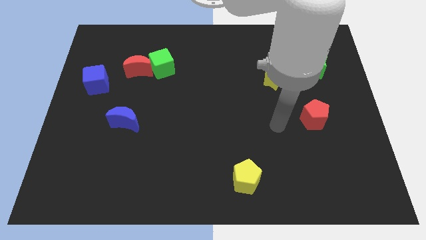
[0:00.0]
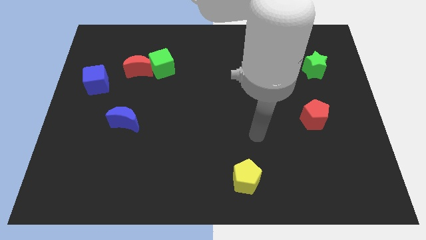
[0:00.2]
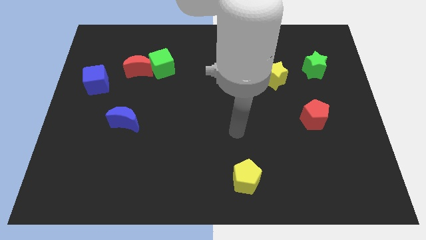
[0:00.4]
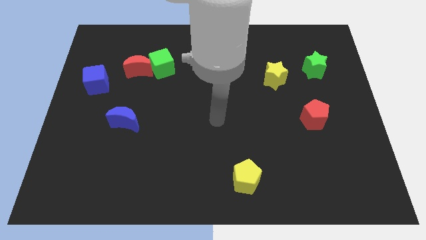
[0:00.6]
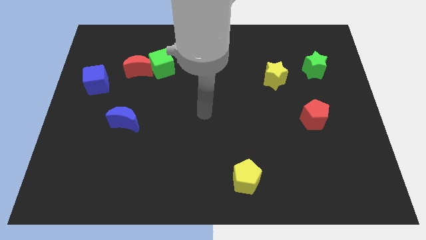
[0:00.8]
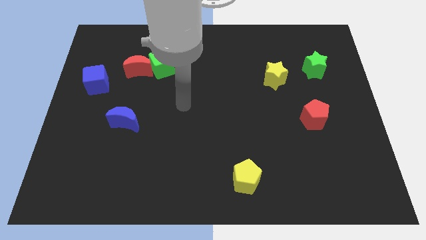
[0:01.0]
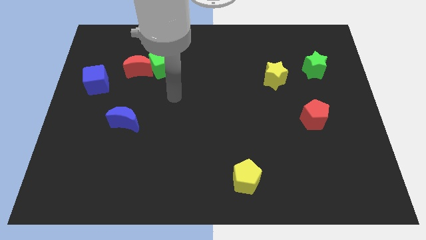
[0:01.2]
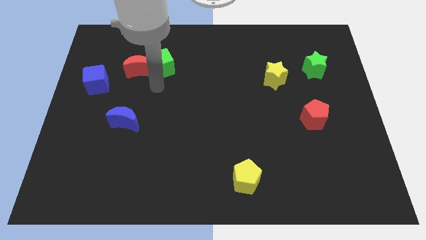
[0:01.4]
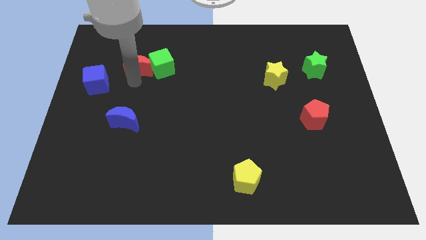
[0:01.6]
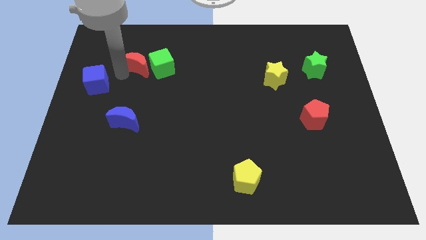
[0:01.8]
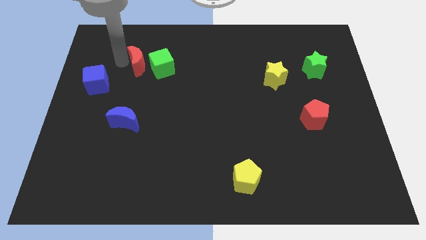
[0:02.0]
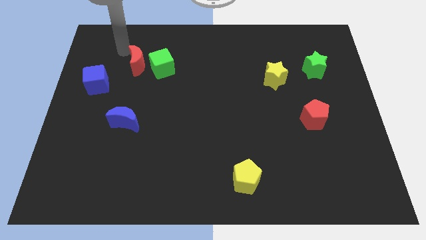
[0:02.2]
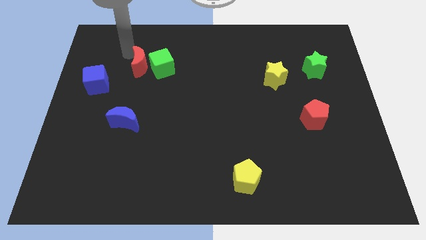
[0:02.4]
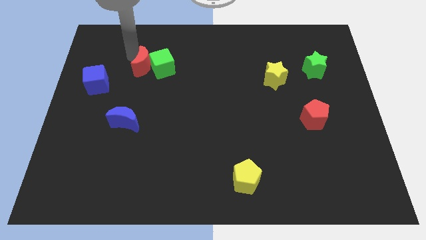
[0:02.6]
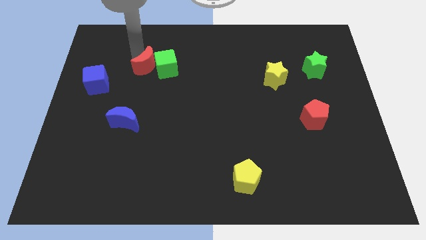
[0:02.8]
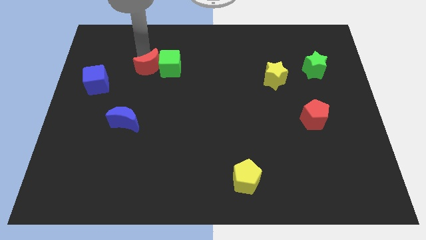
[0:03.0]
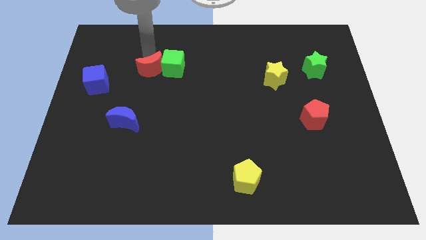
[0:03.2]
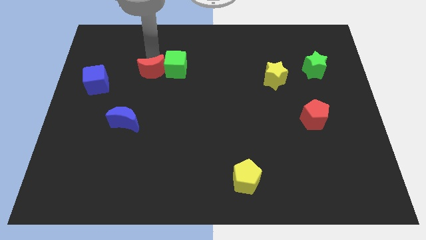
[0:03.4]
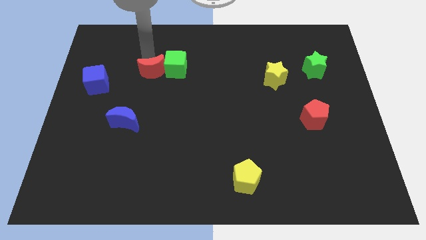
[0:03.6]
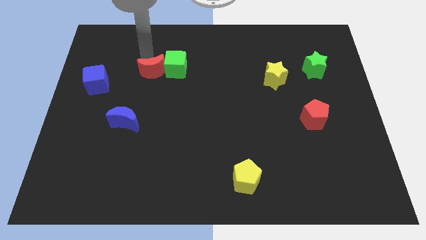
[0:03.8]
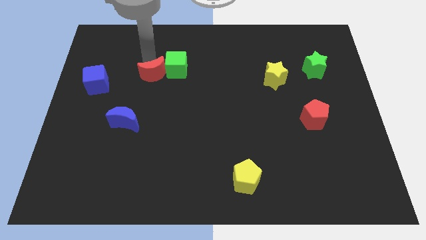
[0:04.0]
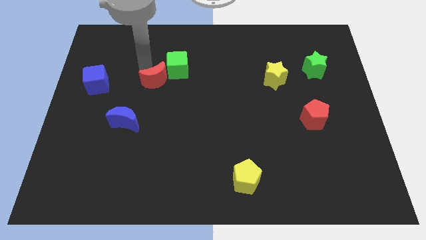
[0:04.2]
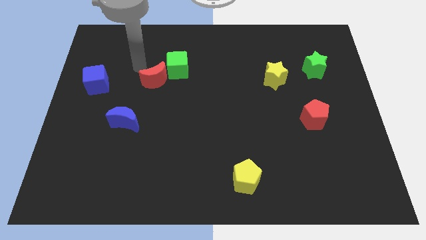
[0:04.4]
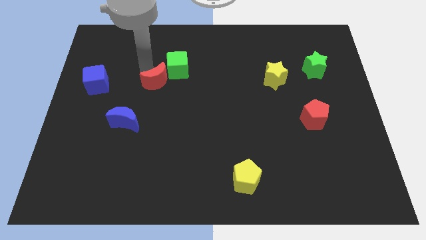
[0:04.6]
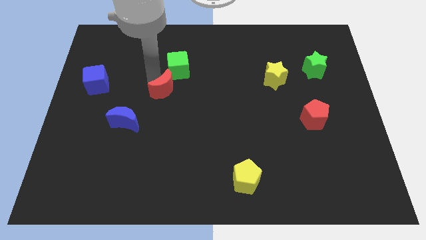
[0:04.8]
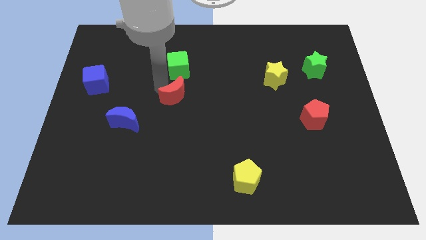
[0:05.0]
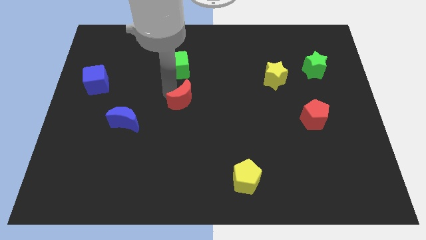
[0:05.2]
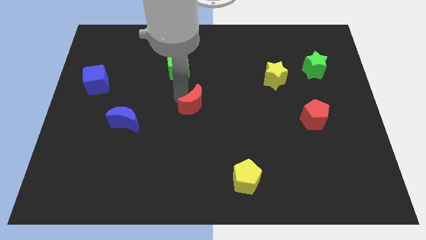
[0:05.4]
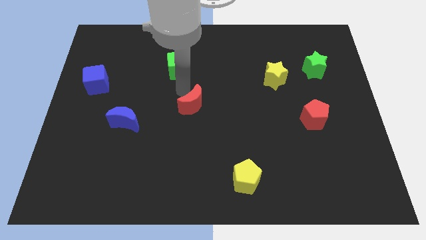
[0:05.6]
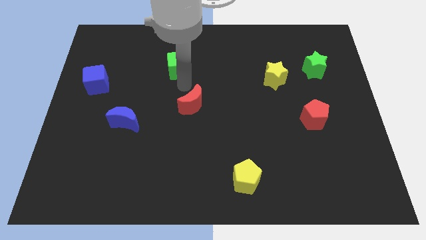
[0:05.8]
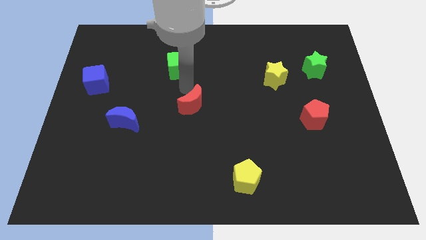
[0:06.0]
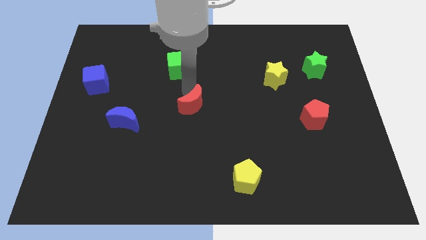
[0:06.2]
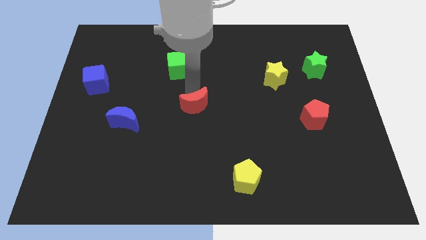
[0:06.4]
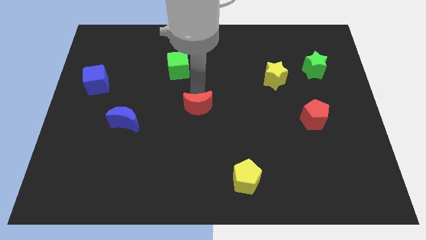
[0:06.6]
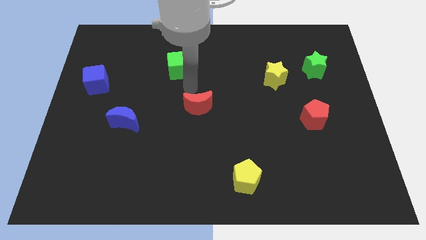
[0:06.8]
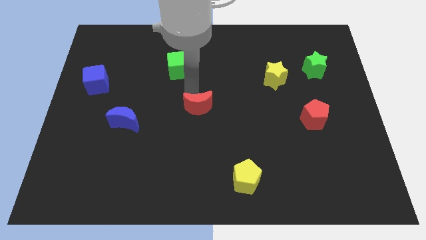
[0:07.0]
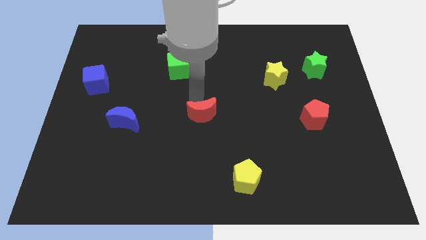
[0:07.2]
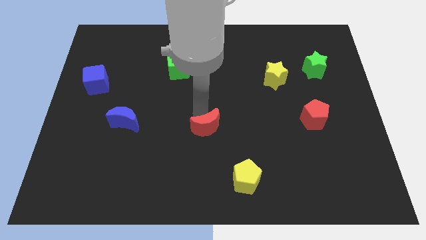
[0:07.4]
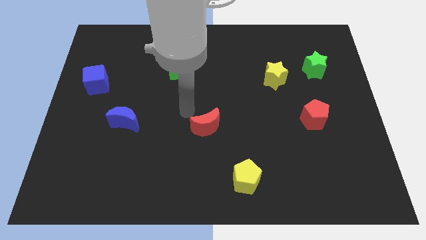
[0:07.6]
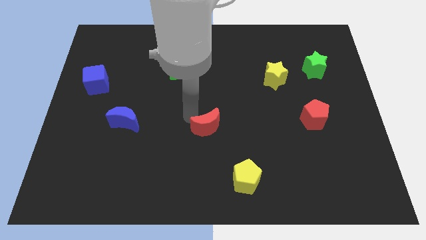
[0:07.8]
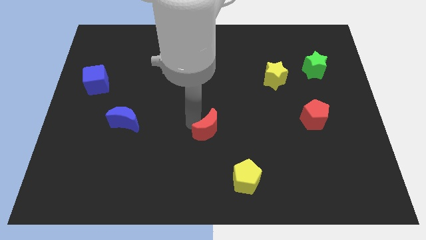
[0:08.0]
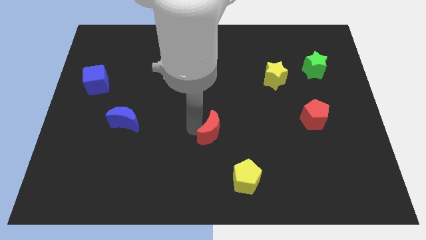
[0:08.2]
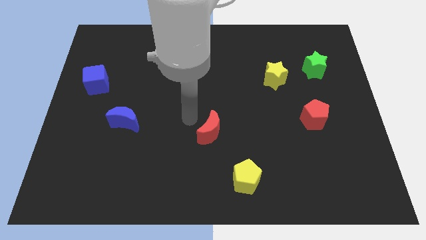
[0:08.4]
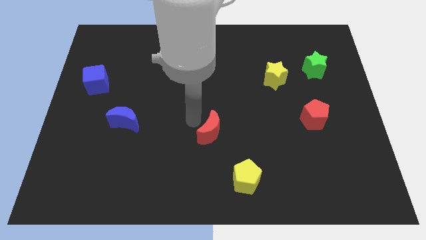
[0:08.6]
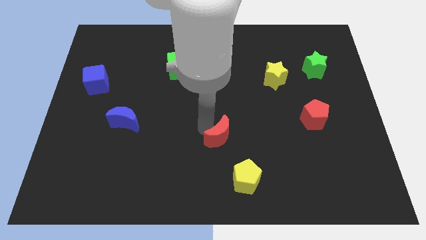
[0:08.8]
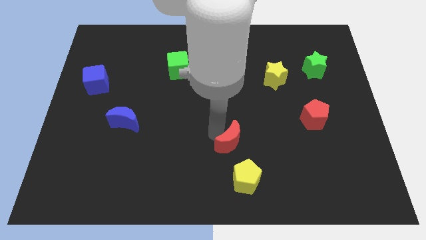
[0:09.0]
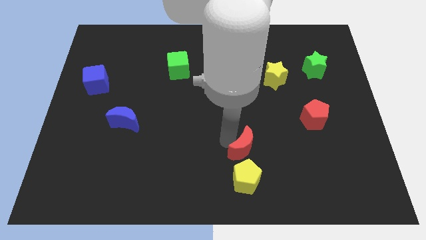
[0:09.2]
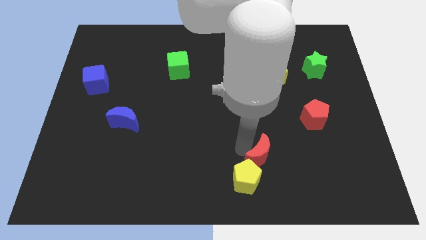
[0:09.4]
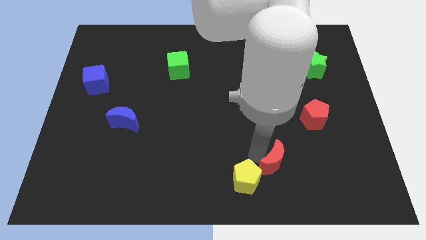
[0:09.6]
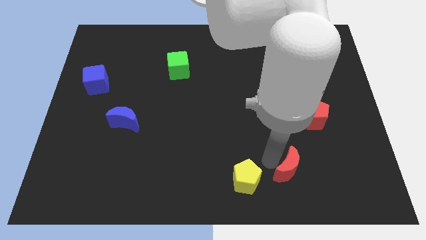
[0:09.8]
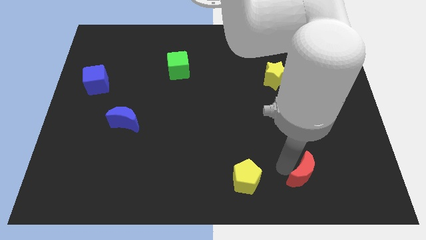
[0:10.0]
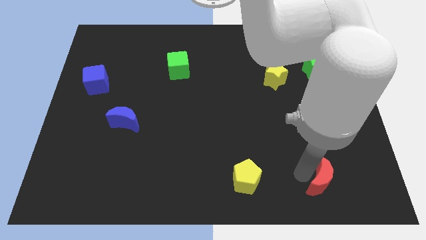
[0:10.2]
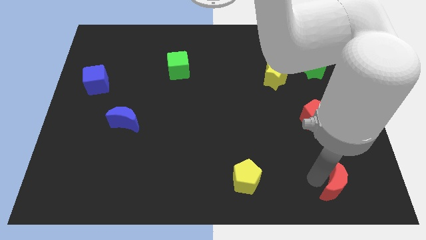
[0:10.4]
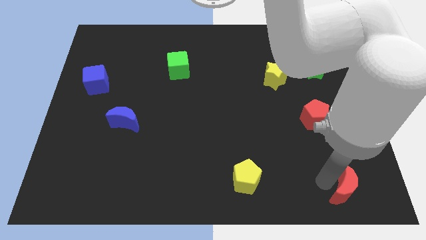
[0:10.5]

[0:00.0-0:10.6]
slide the red moon to the bottom right of the board

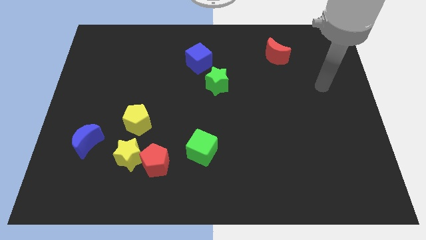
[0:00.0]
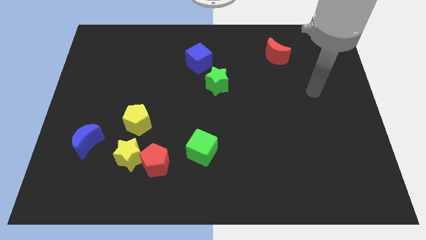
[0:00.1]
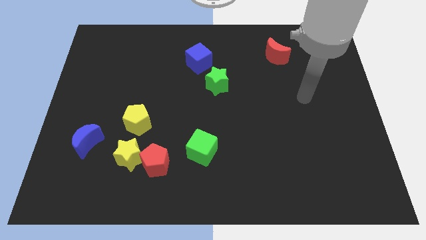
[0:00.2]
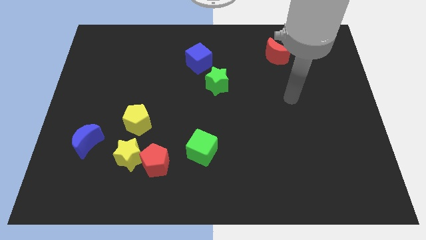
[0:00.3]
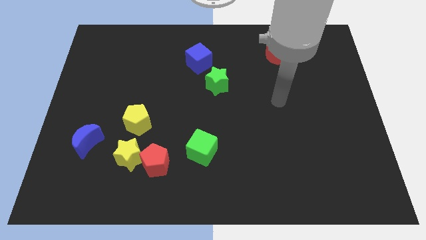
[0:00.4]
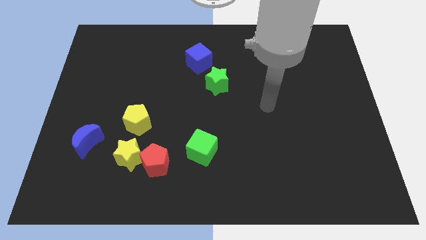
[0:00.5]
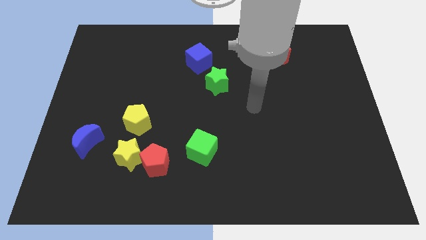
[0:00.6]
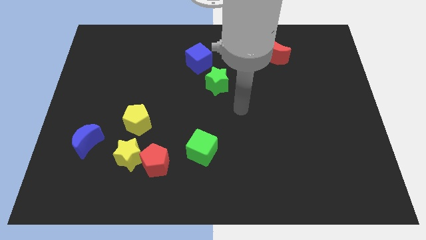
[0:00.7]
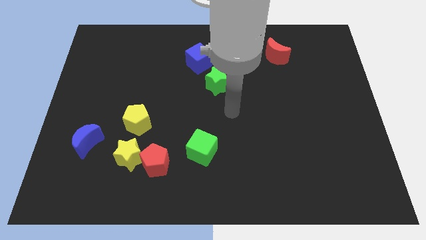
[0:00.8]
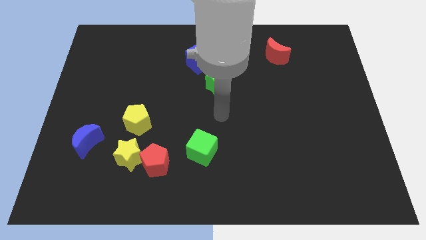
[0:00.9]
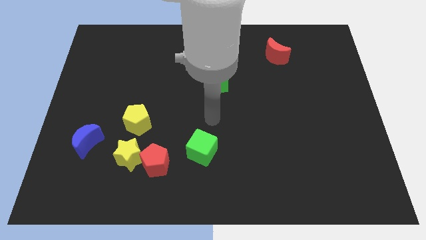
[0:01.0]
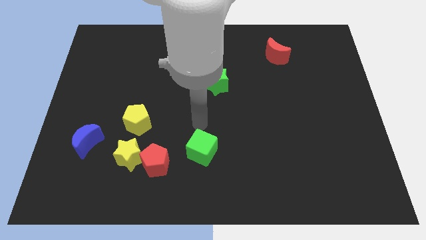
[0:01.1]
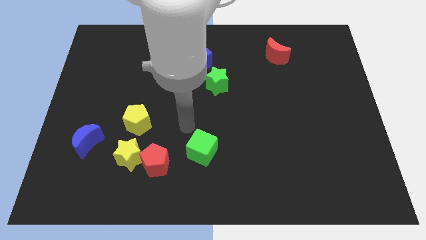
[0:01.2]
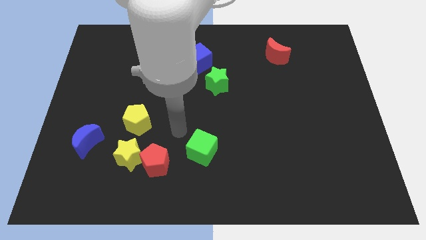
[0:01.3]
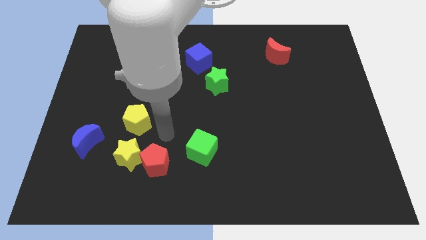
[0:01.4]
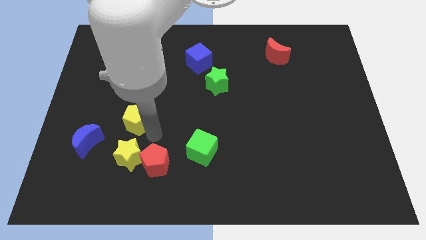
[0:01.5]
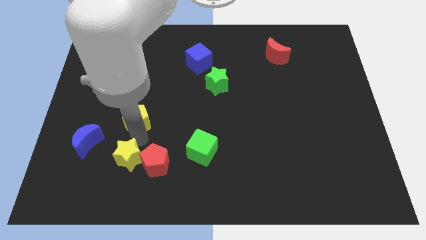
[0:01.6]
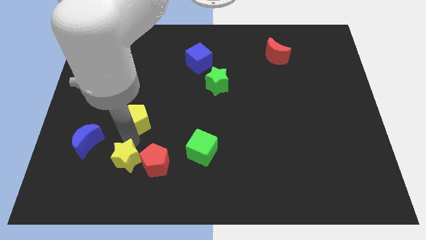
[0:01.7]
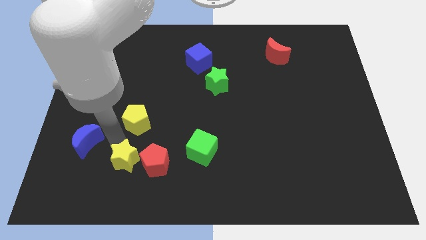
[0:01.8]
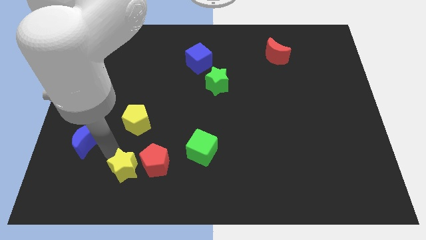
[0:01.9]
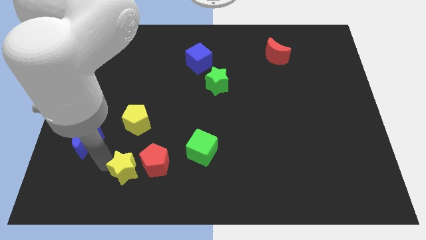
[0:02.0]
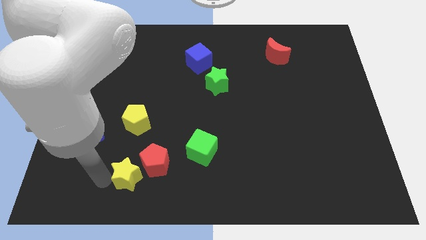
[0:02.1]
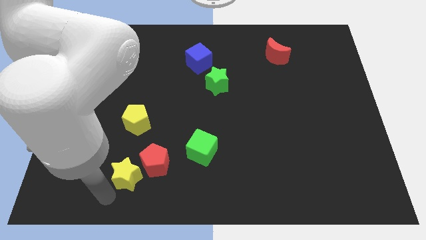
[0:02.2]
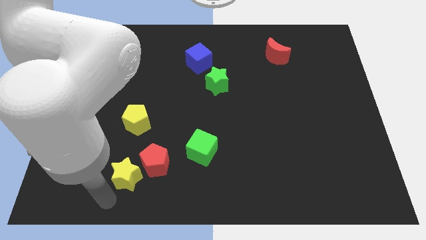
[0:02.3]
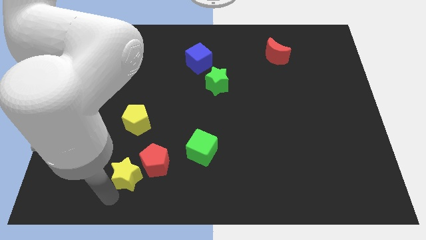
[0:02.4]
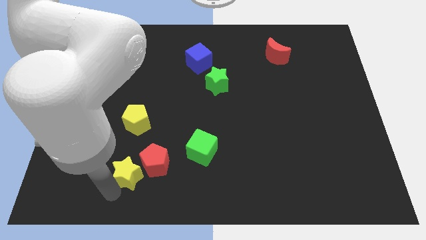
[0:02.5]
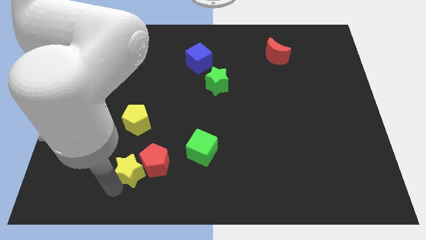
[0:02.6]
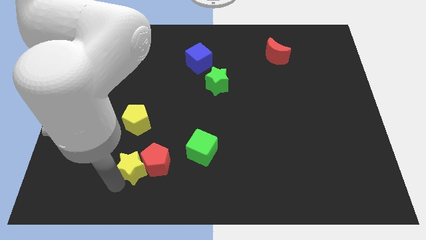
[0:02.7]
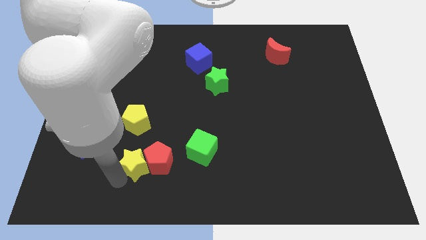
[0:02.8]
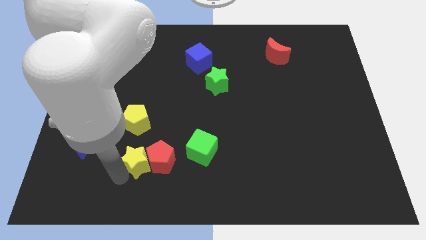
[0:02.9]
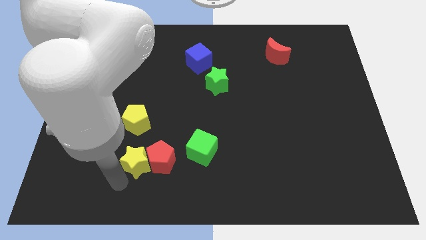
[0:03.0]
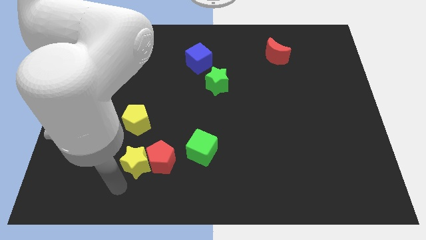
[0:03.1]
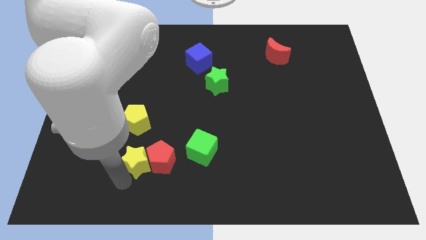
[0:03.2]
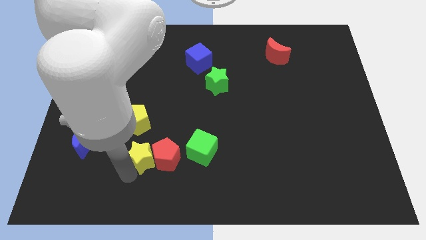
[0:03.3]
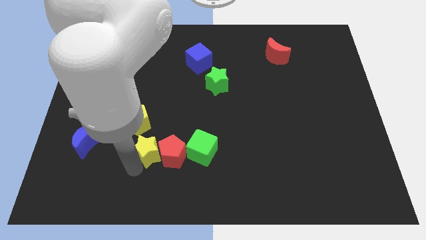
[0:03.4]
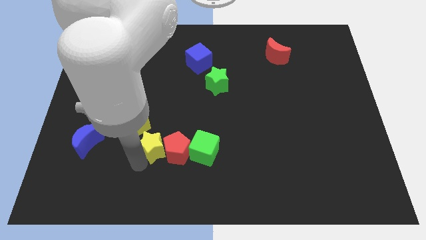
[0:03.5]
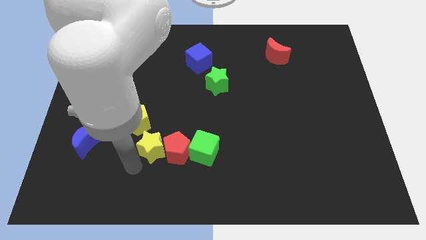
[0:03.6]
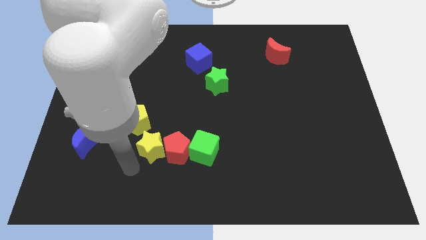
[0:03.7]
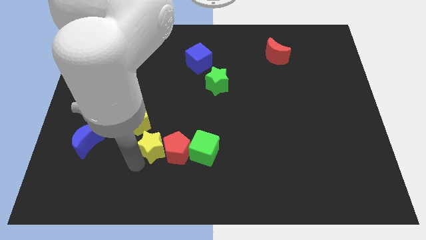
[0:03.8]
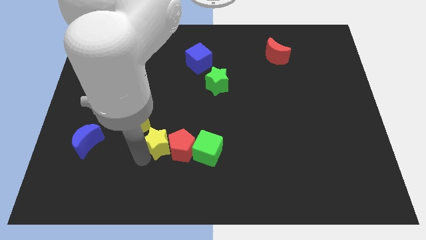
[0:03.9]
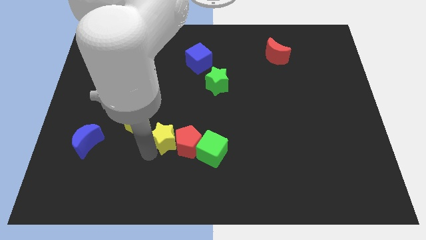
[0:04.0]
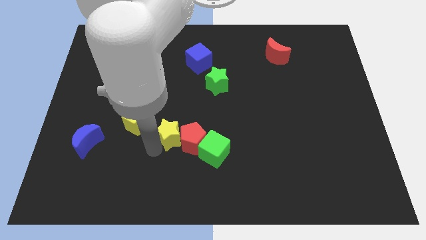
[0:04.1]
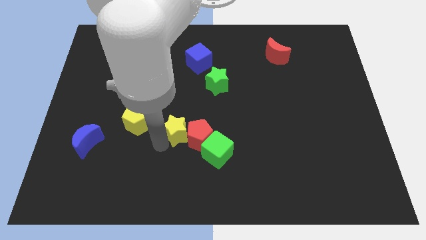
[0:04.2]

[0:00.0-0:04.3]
put the yellow star to the center
